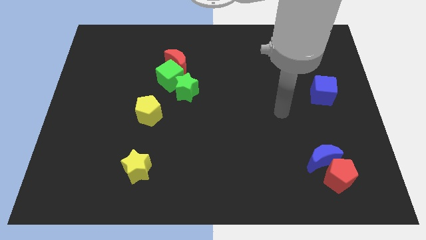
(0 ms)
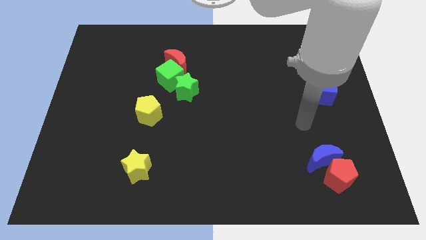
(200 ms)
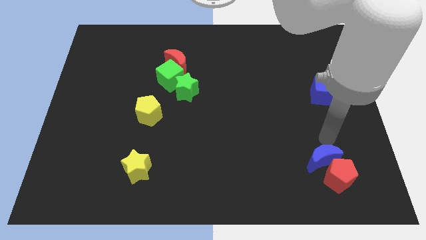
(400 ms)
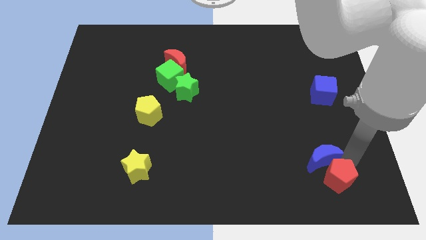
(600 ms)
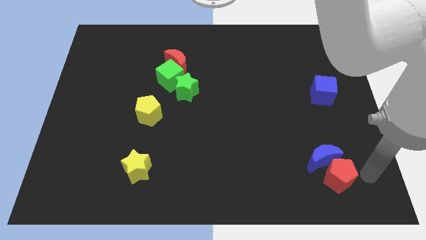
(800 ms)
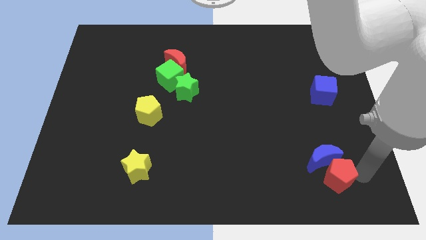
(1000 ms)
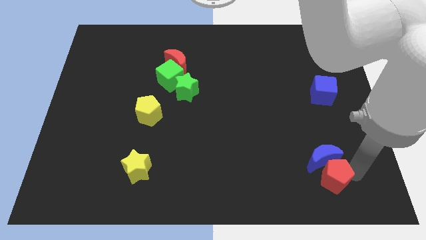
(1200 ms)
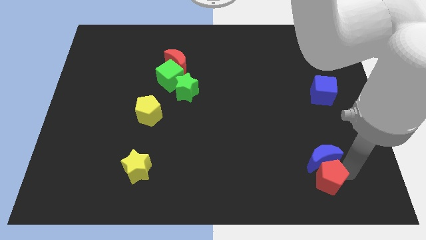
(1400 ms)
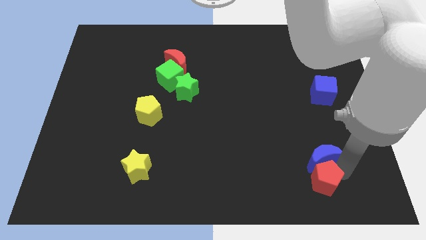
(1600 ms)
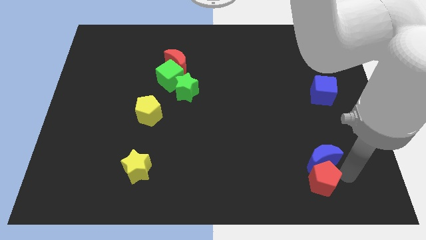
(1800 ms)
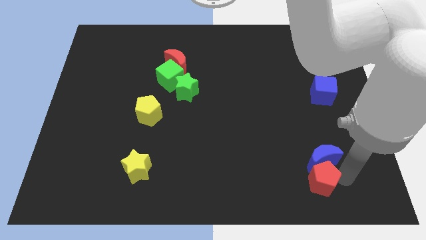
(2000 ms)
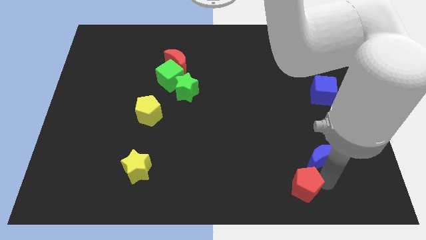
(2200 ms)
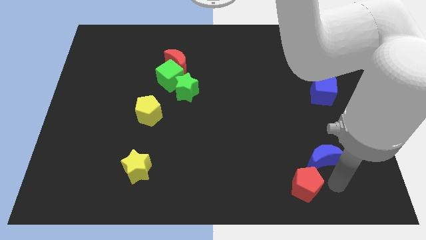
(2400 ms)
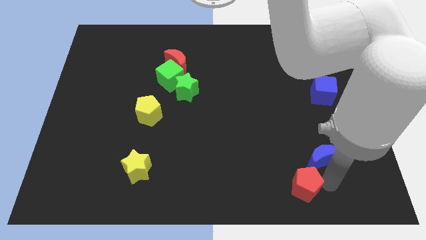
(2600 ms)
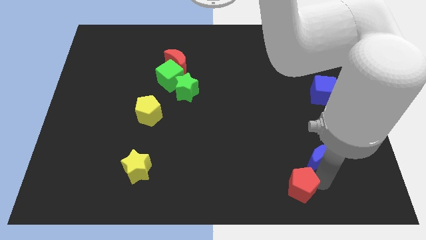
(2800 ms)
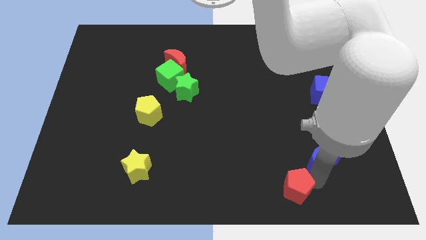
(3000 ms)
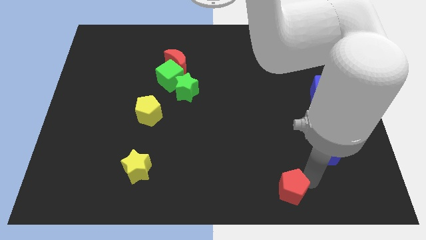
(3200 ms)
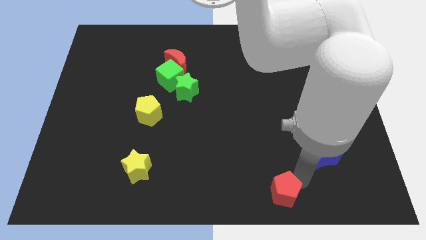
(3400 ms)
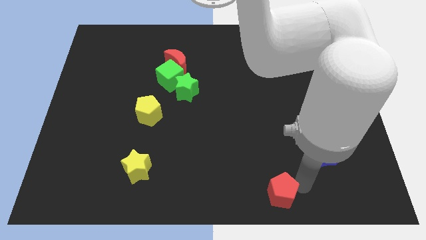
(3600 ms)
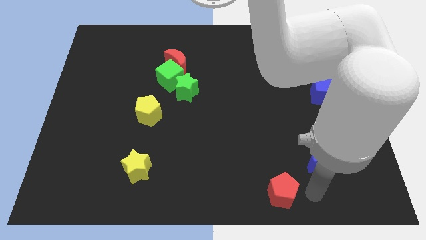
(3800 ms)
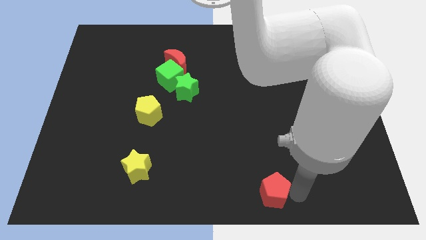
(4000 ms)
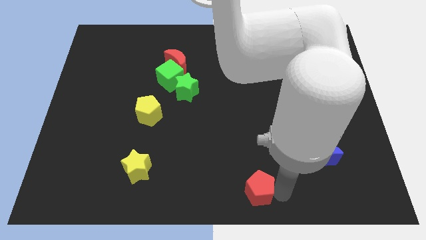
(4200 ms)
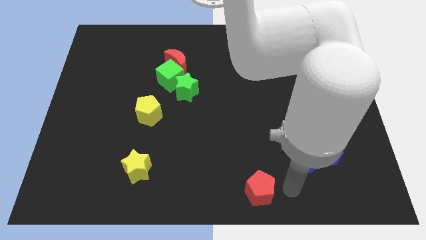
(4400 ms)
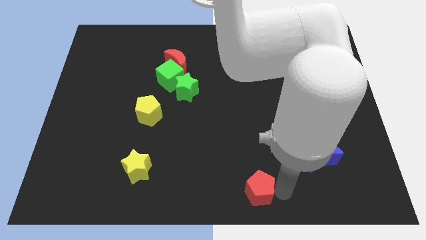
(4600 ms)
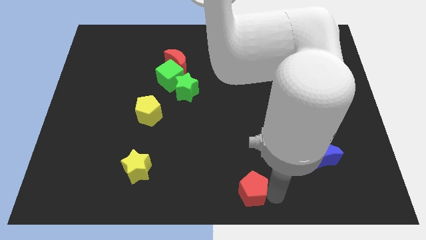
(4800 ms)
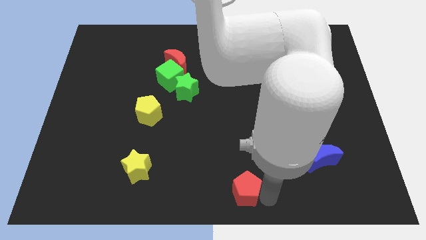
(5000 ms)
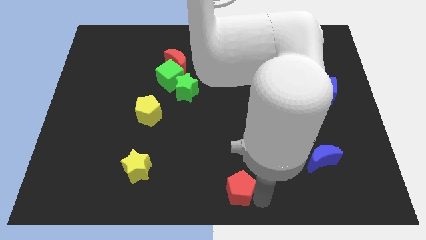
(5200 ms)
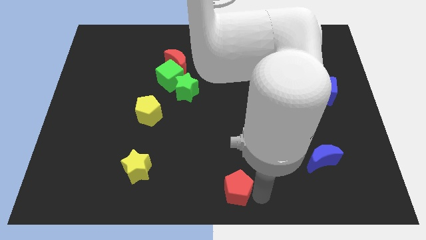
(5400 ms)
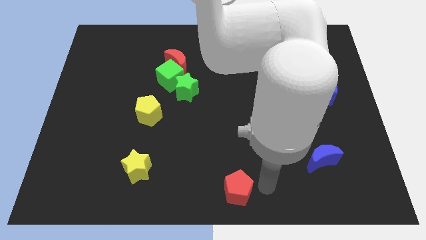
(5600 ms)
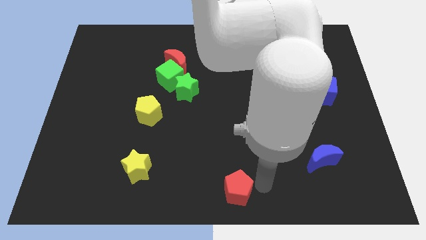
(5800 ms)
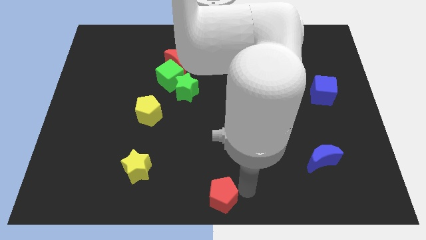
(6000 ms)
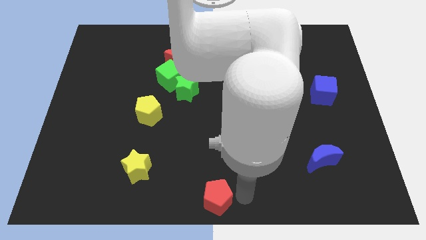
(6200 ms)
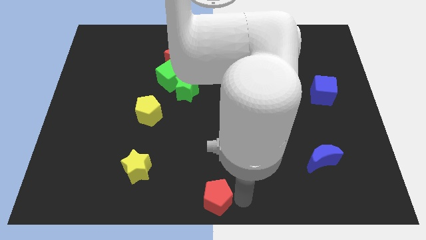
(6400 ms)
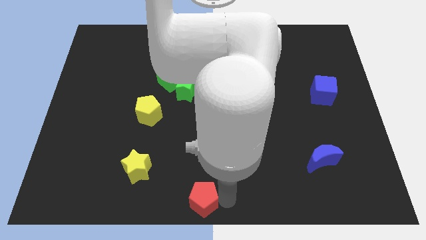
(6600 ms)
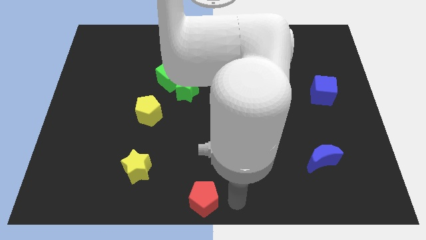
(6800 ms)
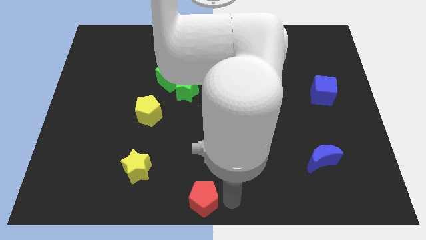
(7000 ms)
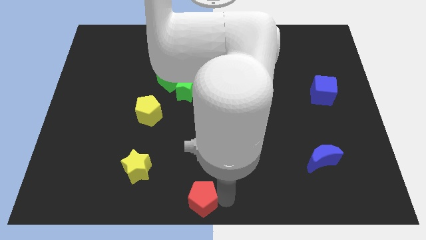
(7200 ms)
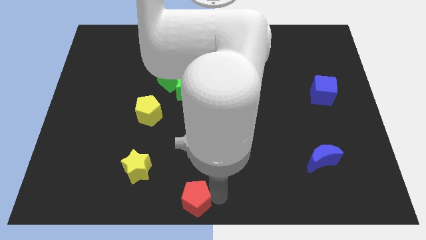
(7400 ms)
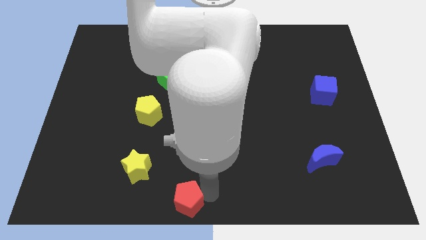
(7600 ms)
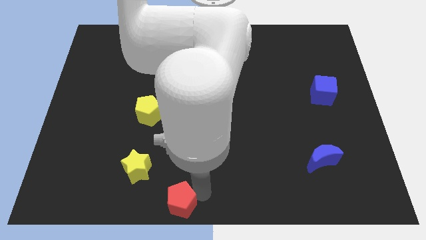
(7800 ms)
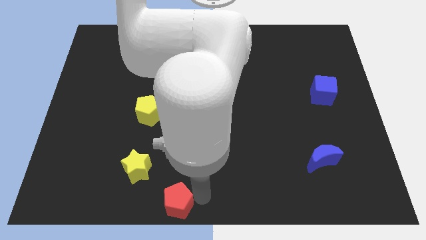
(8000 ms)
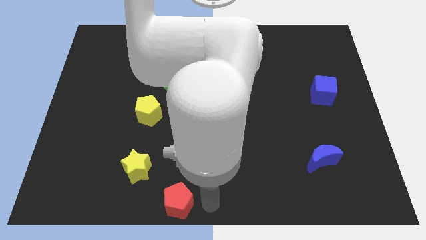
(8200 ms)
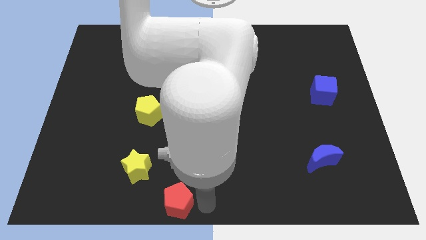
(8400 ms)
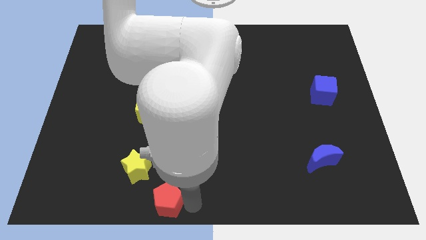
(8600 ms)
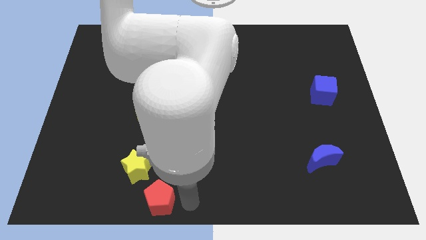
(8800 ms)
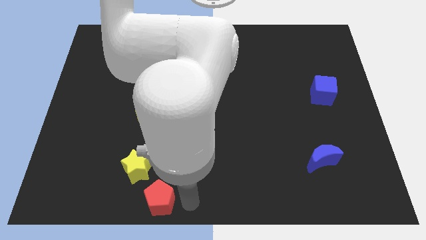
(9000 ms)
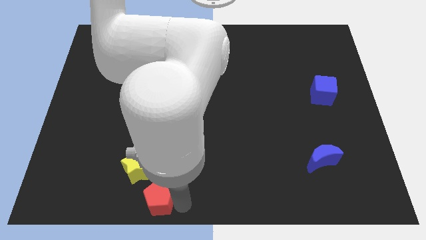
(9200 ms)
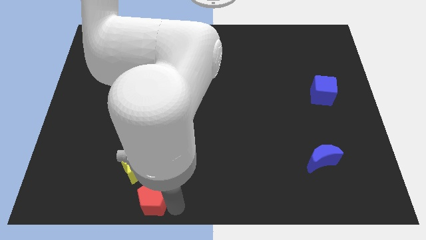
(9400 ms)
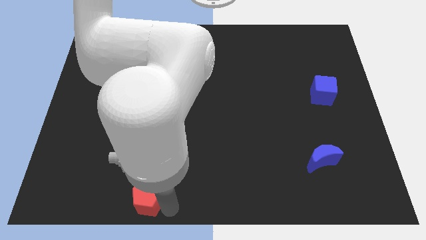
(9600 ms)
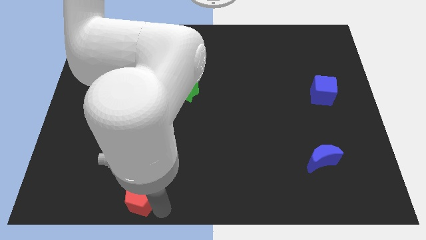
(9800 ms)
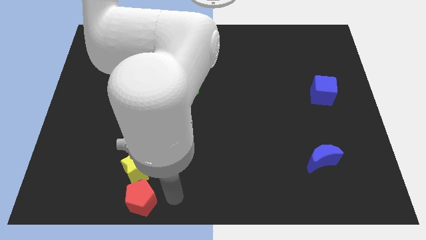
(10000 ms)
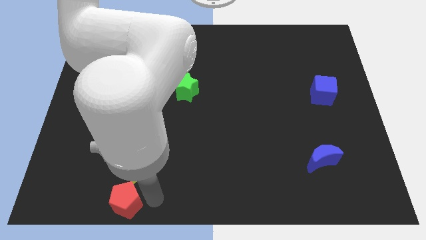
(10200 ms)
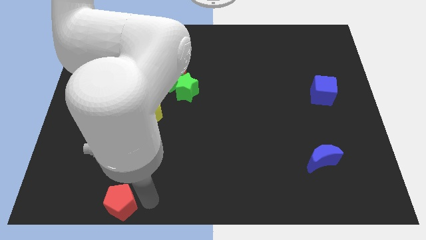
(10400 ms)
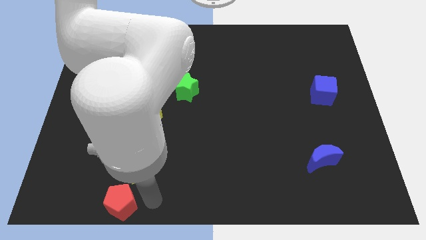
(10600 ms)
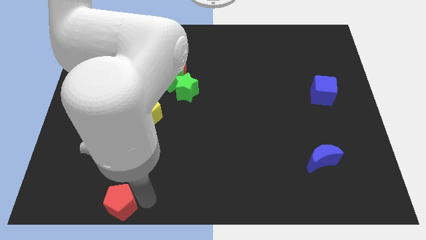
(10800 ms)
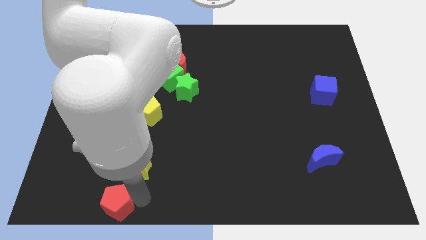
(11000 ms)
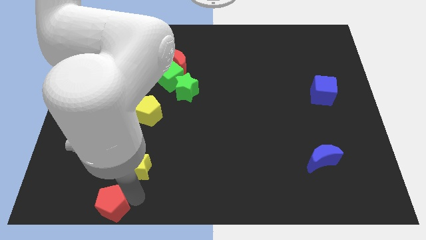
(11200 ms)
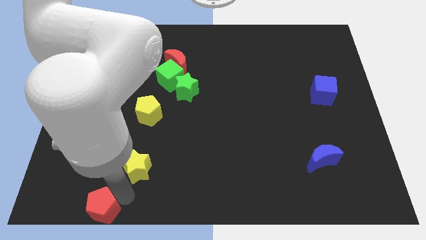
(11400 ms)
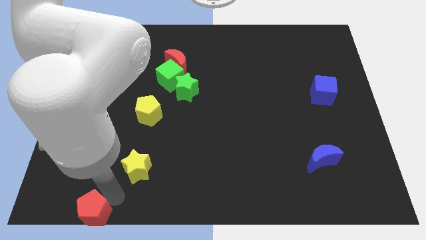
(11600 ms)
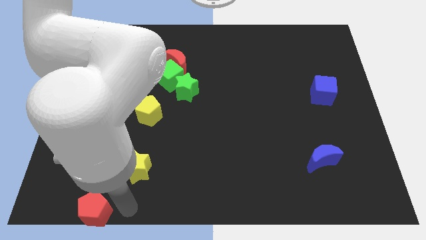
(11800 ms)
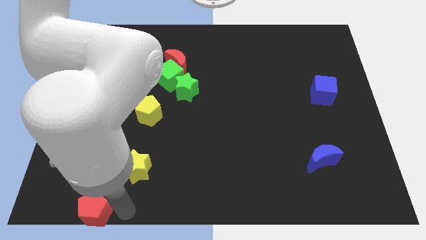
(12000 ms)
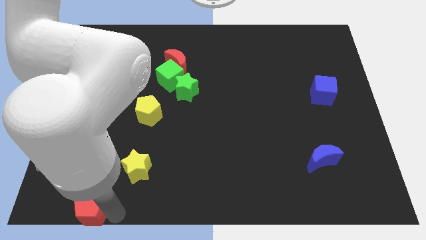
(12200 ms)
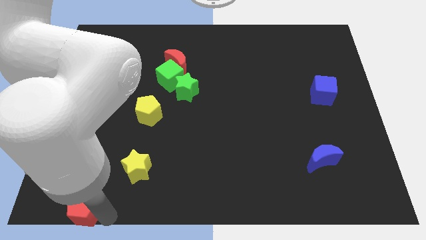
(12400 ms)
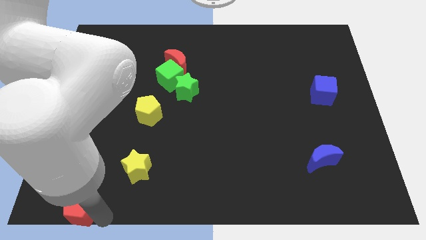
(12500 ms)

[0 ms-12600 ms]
move the red pentagon to the bottom left
